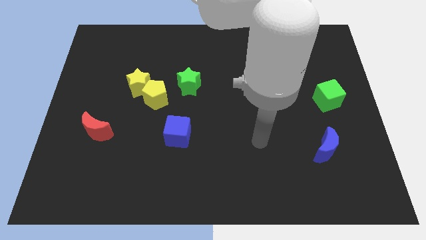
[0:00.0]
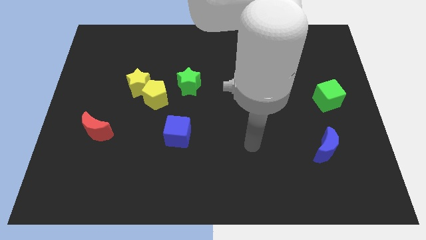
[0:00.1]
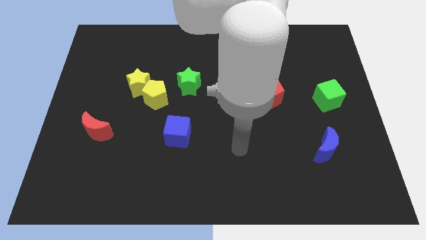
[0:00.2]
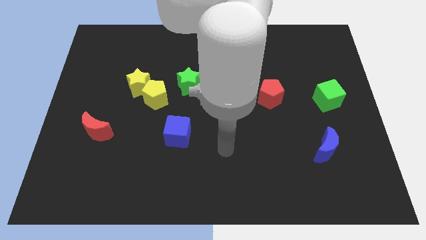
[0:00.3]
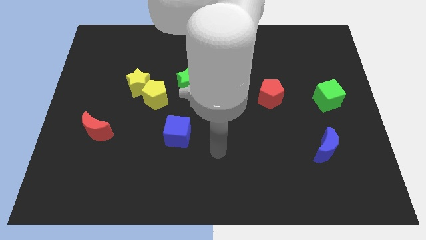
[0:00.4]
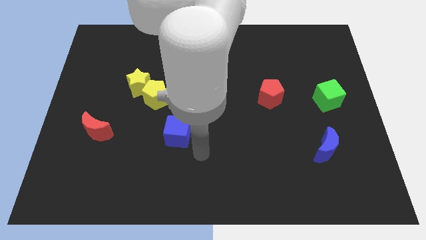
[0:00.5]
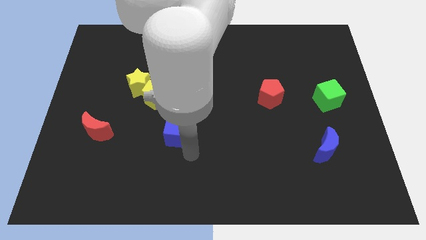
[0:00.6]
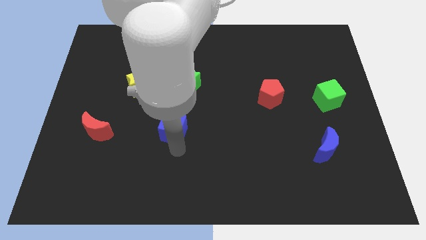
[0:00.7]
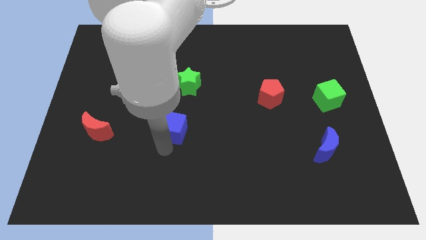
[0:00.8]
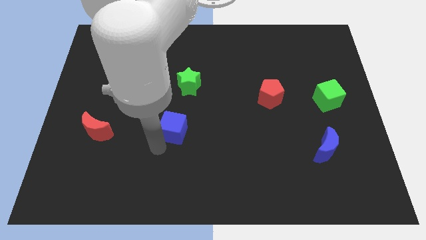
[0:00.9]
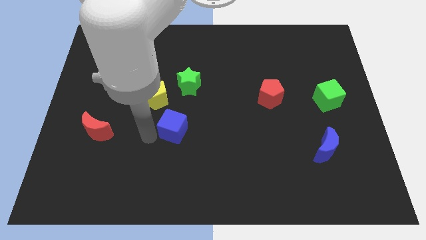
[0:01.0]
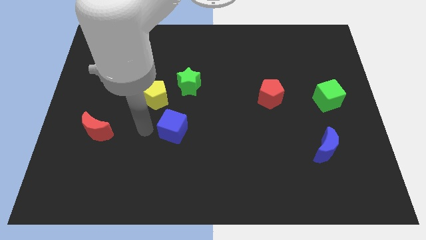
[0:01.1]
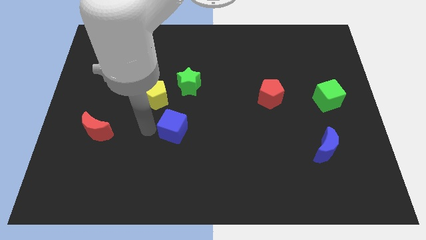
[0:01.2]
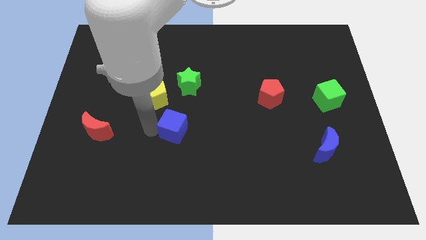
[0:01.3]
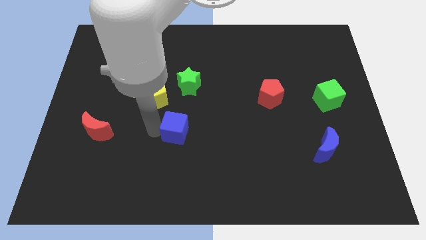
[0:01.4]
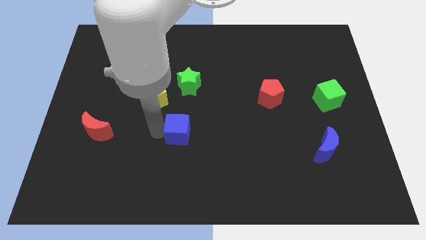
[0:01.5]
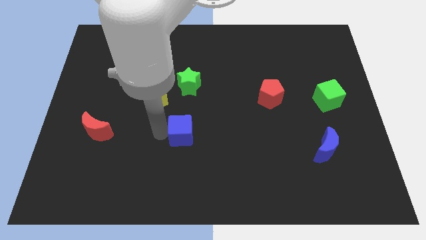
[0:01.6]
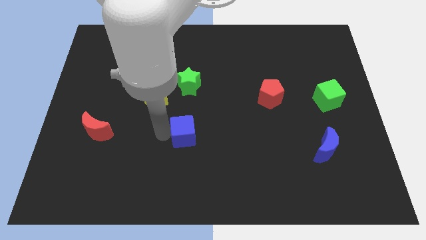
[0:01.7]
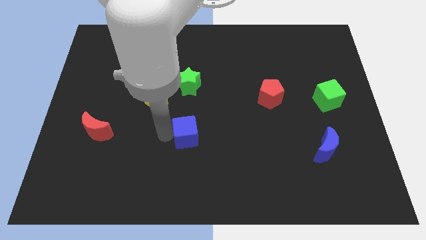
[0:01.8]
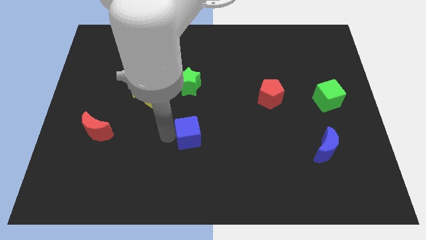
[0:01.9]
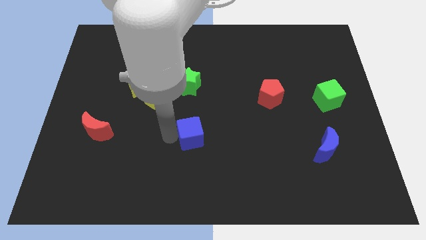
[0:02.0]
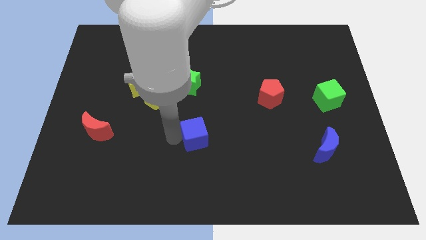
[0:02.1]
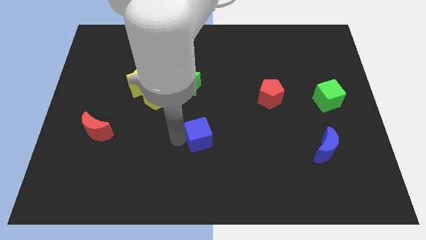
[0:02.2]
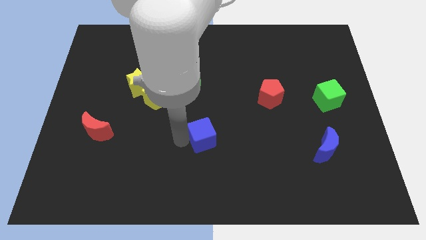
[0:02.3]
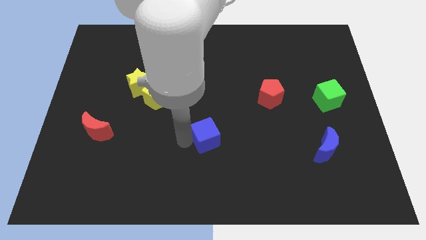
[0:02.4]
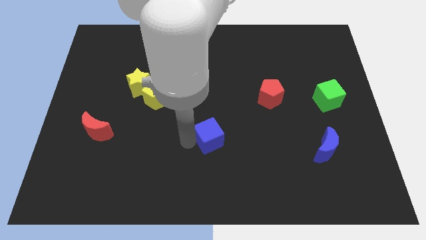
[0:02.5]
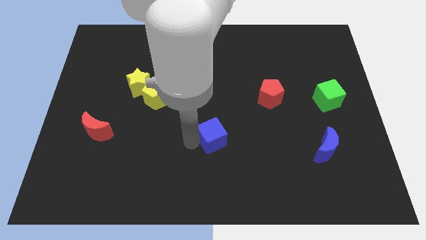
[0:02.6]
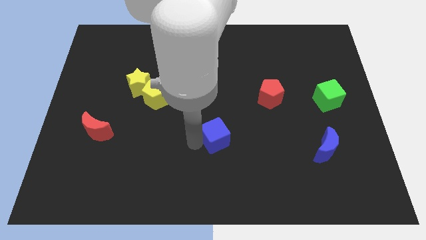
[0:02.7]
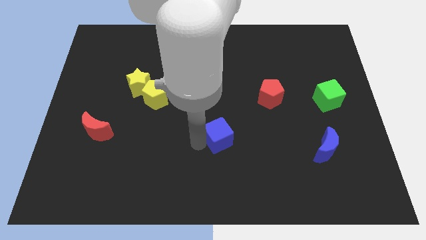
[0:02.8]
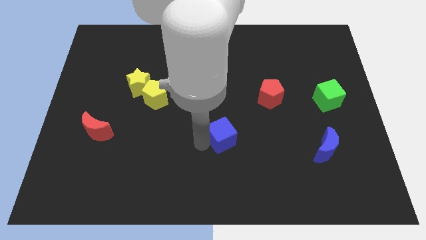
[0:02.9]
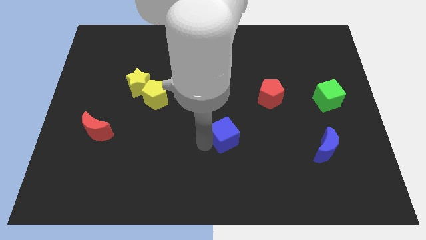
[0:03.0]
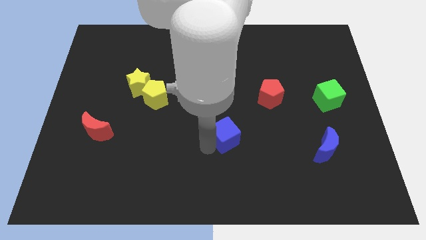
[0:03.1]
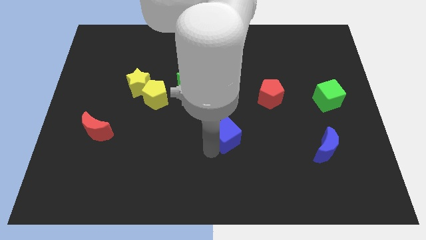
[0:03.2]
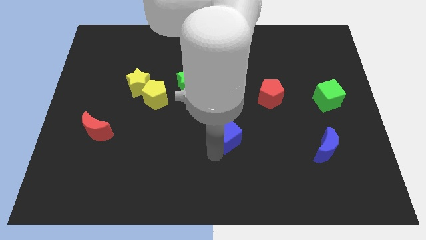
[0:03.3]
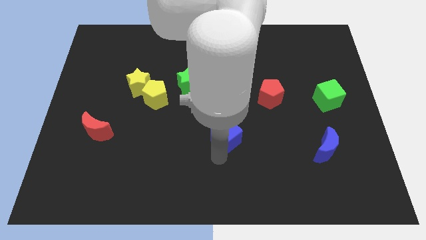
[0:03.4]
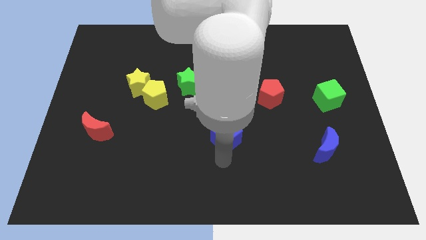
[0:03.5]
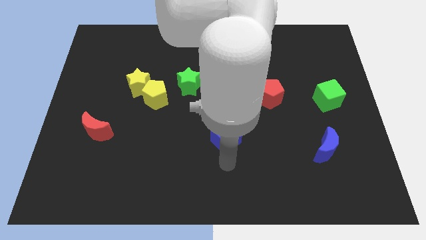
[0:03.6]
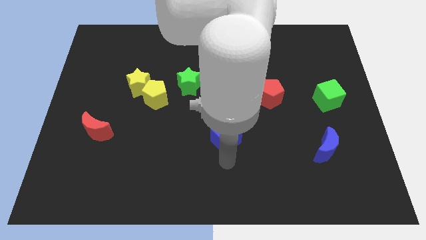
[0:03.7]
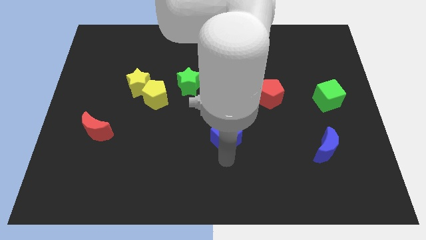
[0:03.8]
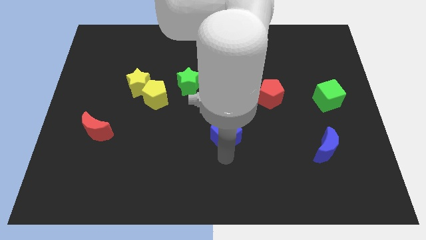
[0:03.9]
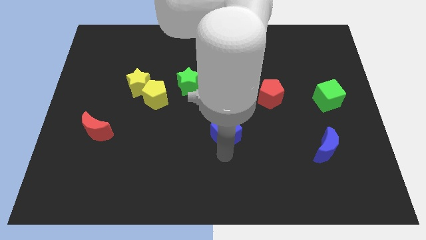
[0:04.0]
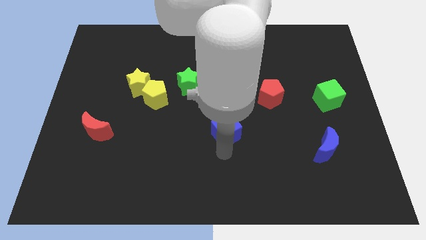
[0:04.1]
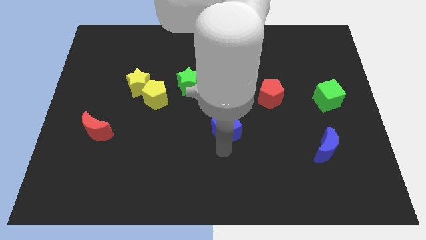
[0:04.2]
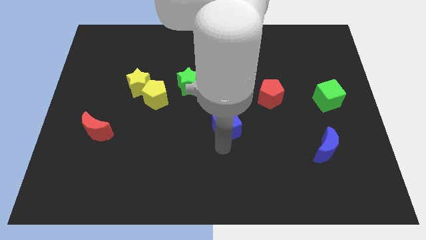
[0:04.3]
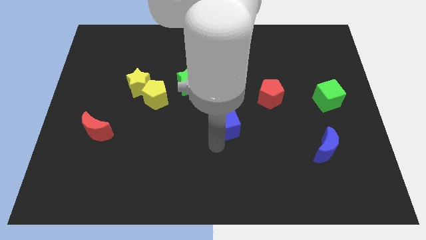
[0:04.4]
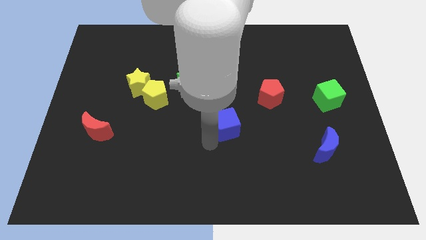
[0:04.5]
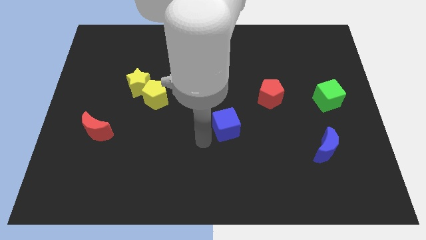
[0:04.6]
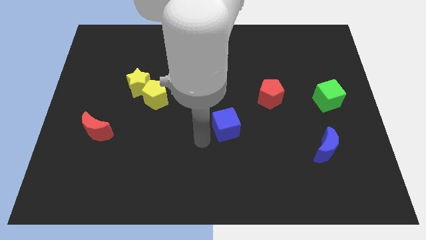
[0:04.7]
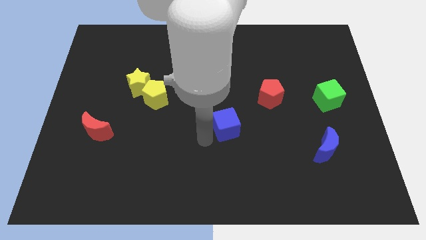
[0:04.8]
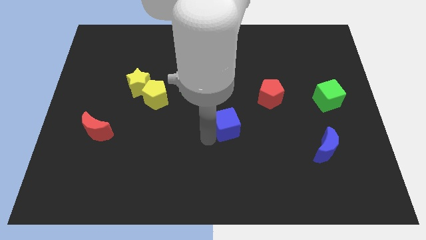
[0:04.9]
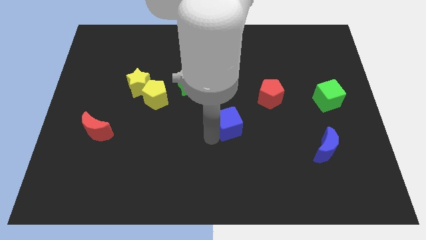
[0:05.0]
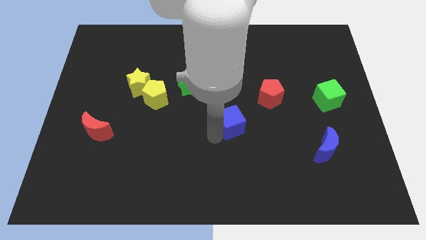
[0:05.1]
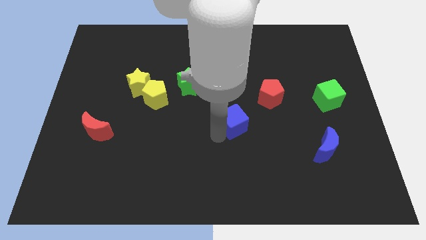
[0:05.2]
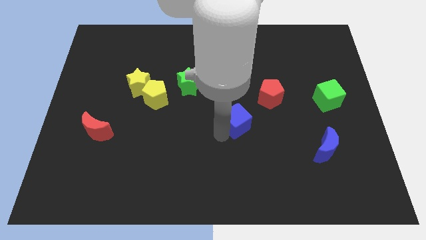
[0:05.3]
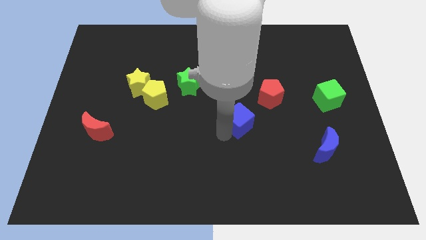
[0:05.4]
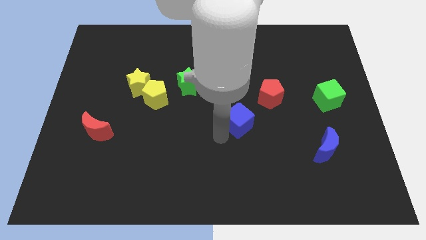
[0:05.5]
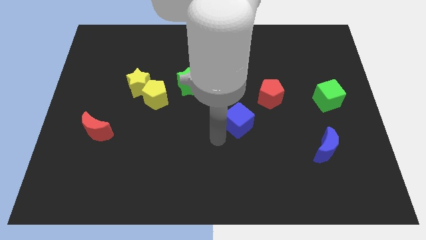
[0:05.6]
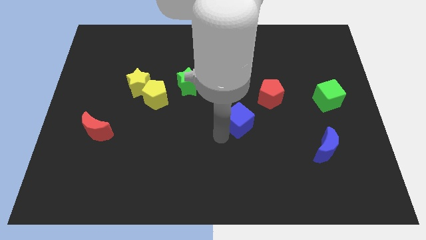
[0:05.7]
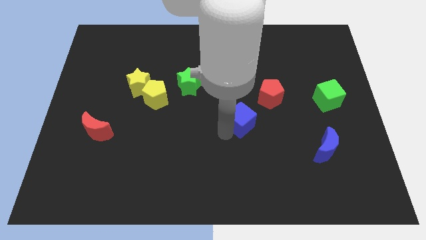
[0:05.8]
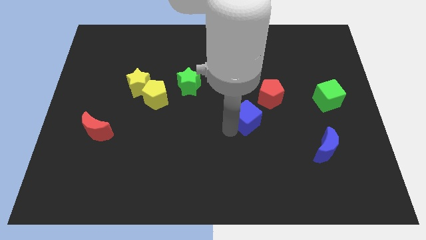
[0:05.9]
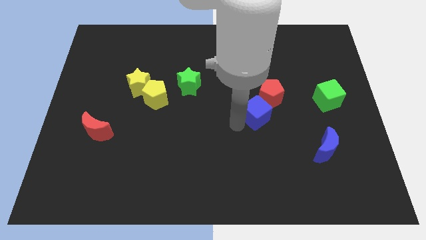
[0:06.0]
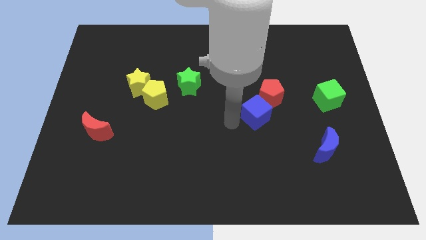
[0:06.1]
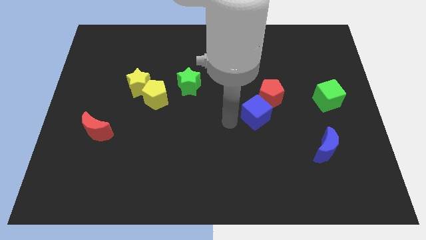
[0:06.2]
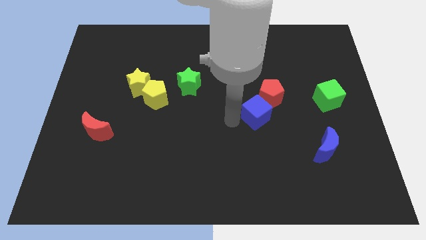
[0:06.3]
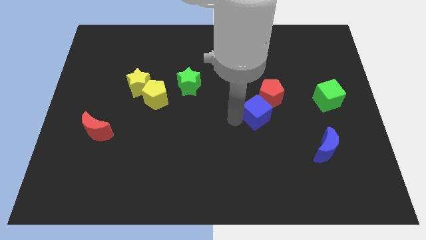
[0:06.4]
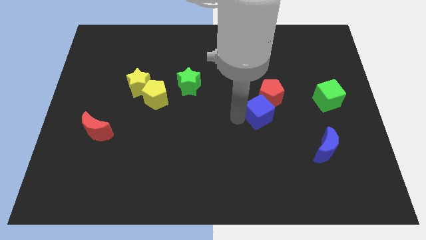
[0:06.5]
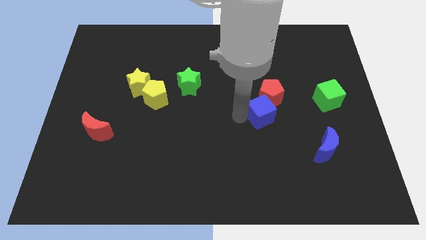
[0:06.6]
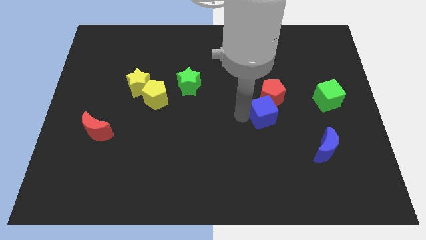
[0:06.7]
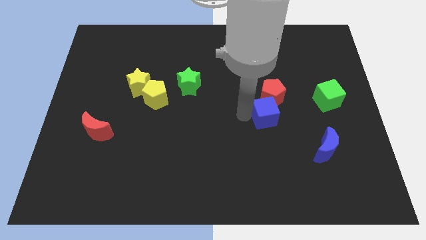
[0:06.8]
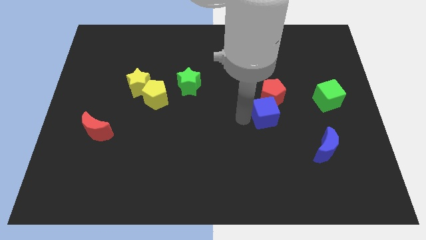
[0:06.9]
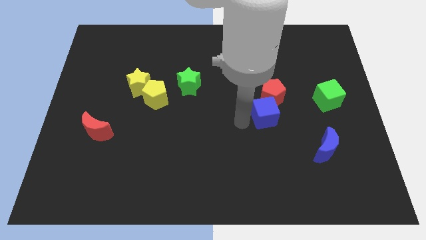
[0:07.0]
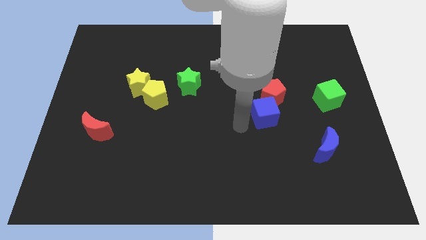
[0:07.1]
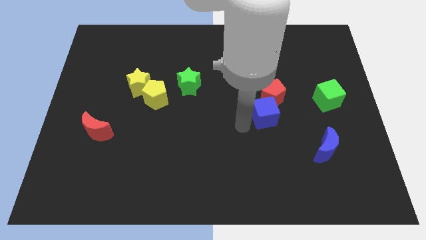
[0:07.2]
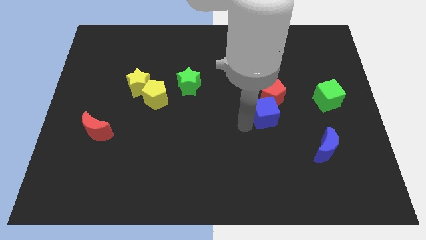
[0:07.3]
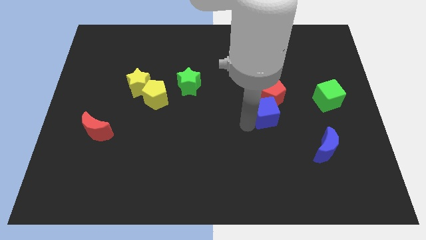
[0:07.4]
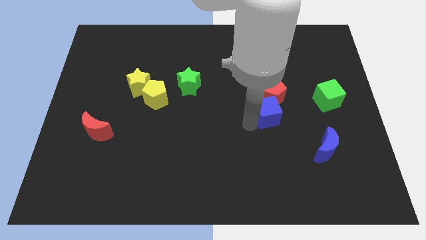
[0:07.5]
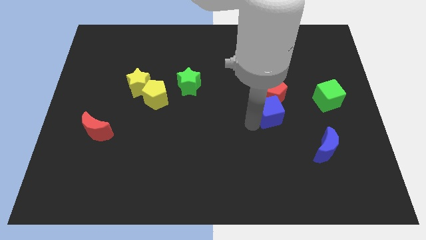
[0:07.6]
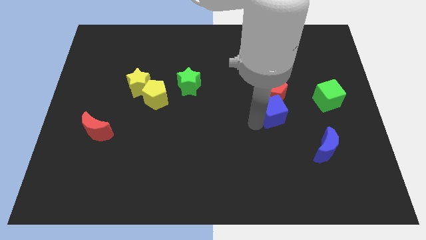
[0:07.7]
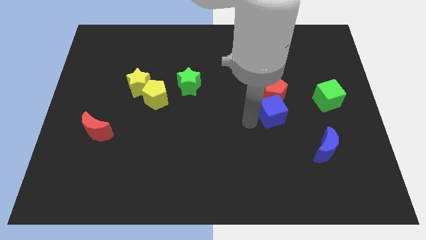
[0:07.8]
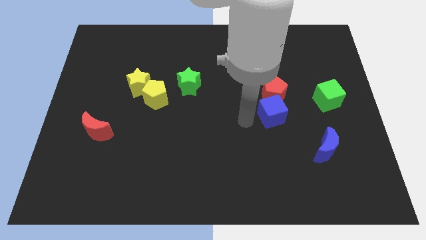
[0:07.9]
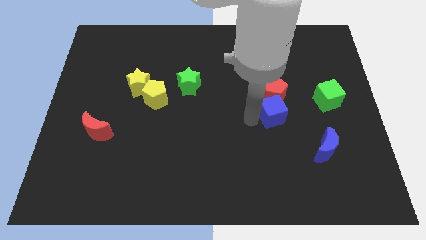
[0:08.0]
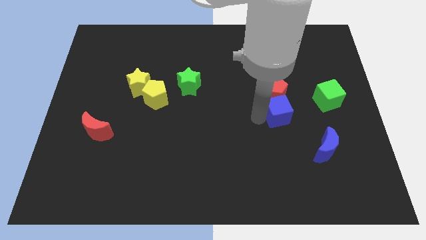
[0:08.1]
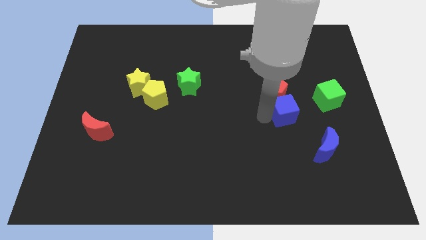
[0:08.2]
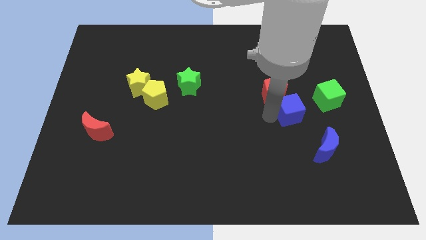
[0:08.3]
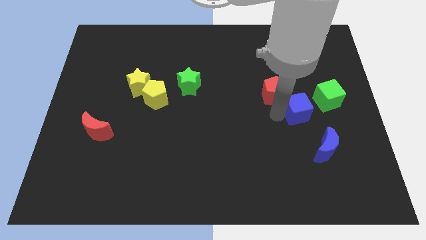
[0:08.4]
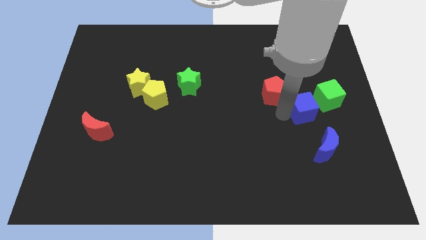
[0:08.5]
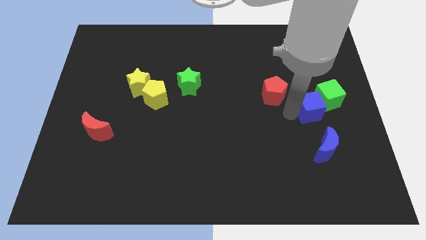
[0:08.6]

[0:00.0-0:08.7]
move the blue cube next to the green cube
